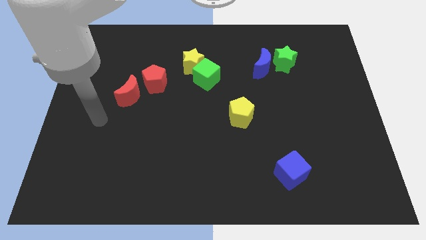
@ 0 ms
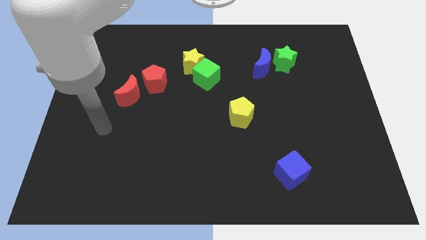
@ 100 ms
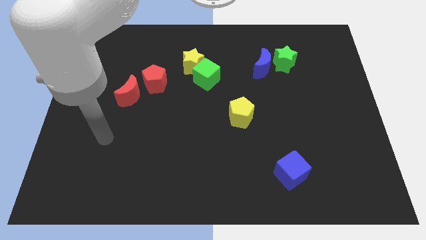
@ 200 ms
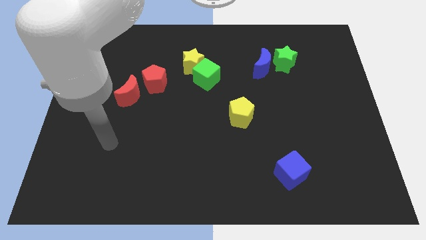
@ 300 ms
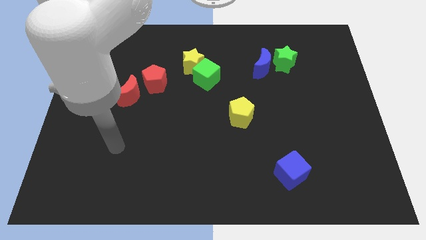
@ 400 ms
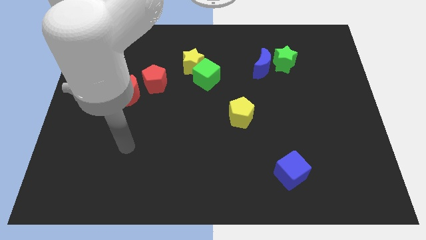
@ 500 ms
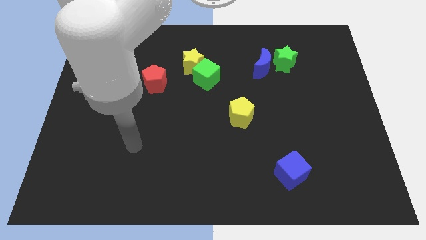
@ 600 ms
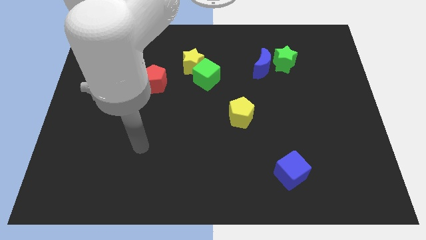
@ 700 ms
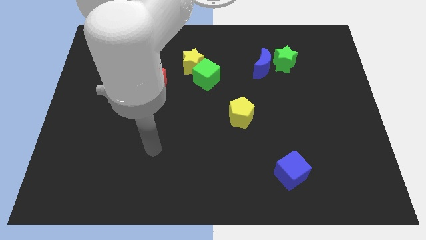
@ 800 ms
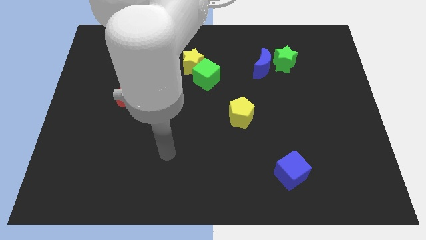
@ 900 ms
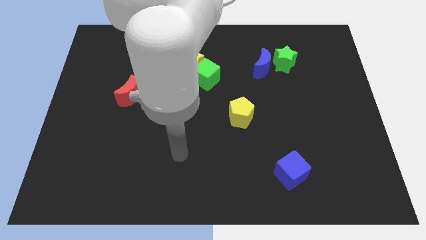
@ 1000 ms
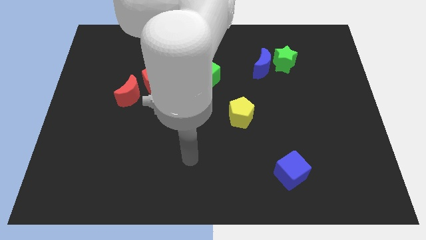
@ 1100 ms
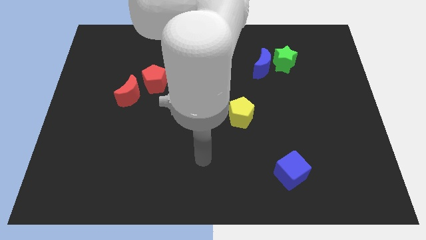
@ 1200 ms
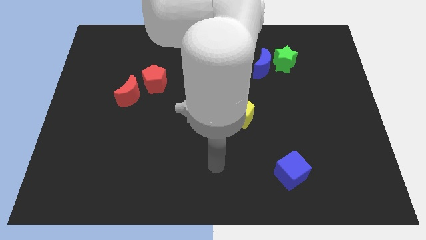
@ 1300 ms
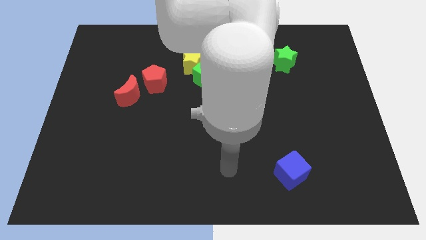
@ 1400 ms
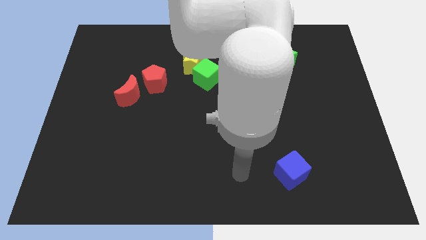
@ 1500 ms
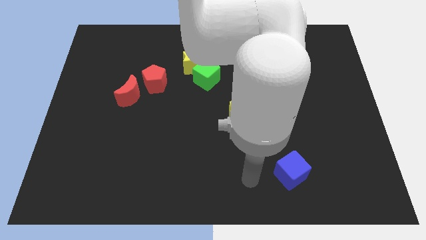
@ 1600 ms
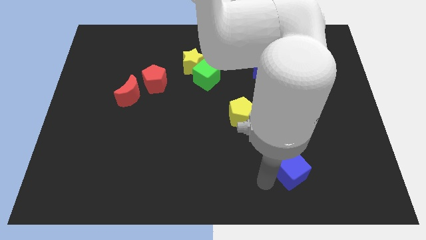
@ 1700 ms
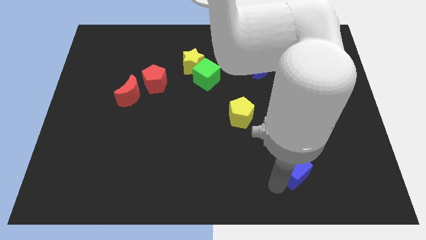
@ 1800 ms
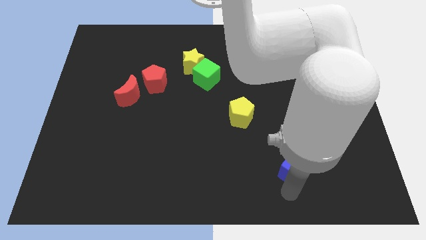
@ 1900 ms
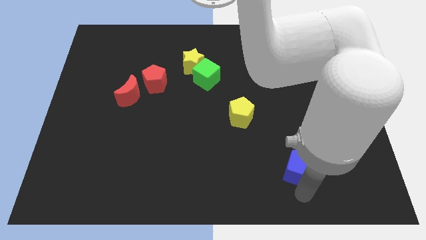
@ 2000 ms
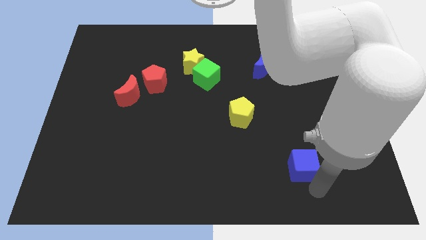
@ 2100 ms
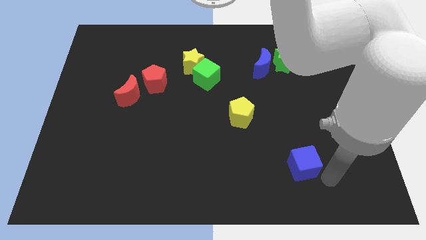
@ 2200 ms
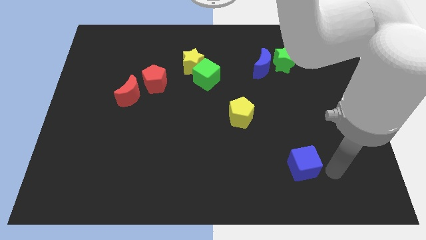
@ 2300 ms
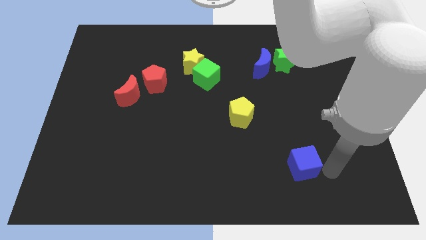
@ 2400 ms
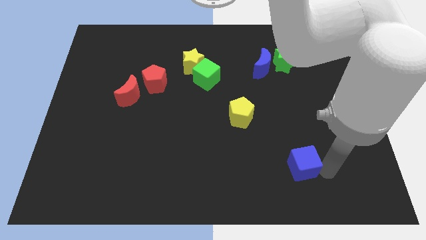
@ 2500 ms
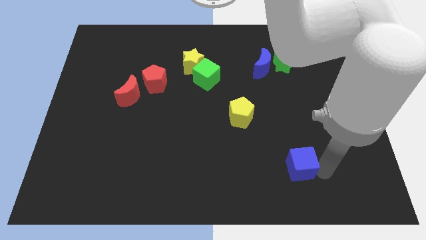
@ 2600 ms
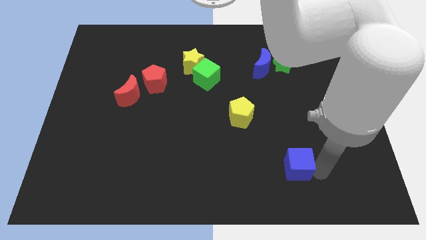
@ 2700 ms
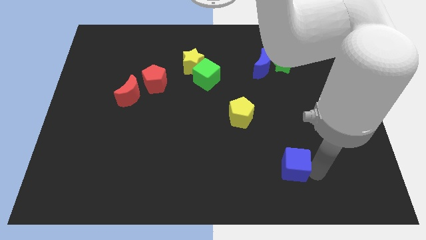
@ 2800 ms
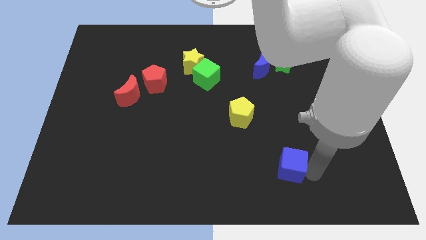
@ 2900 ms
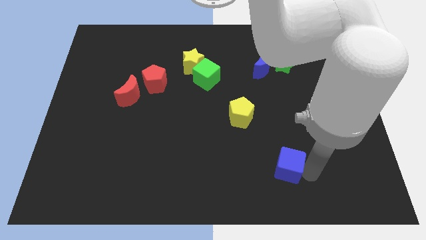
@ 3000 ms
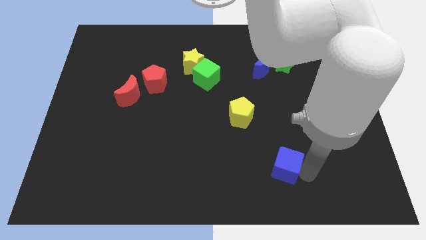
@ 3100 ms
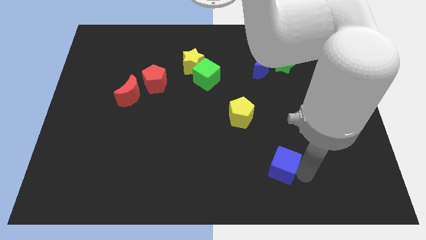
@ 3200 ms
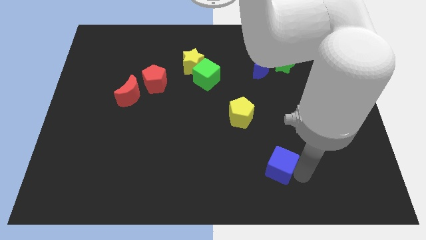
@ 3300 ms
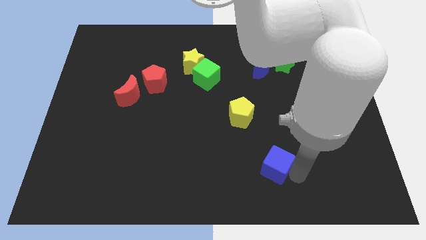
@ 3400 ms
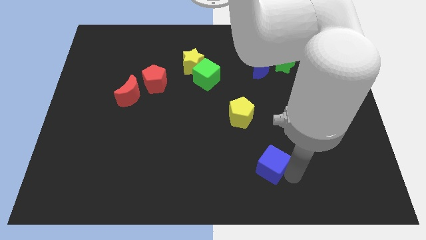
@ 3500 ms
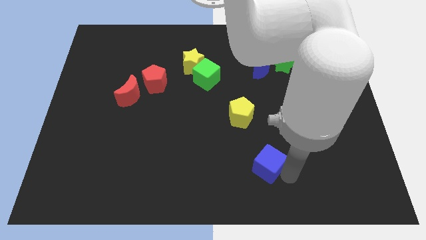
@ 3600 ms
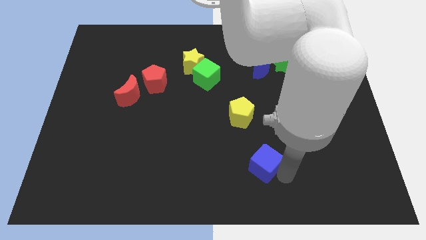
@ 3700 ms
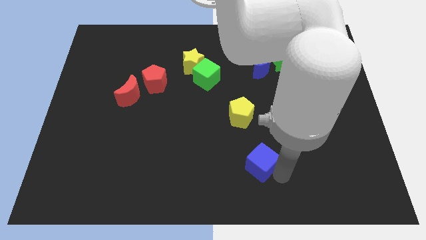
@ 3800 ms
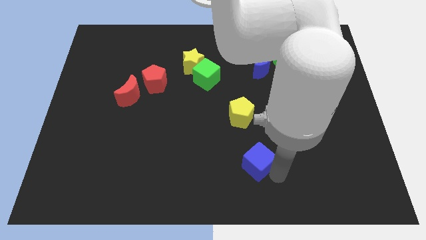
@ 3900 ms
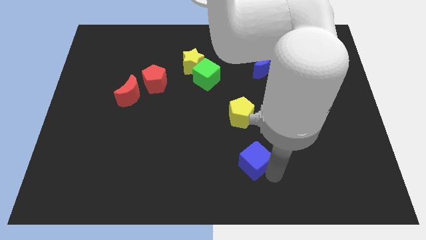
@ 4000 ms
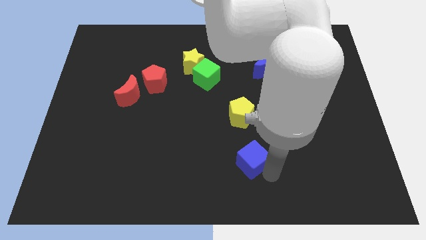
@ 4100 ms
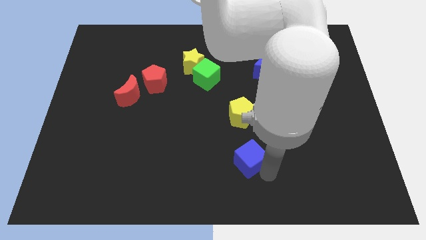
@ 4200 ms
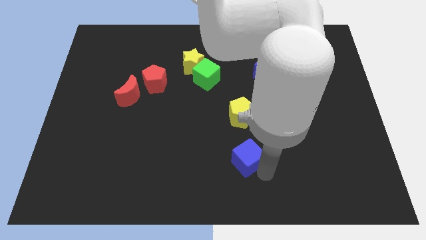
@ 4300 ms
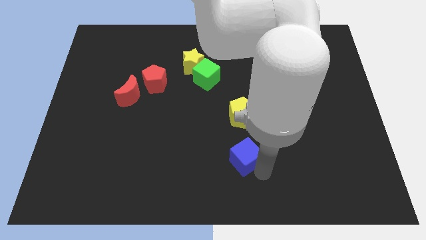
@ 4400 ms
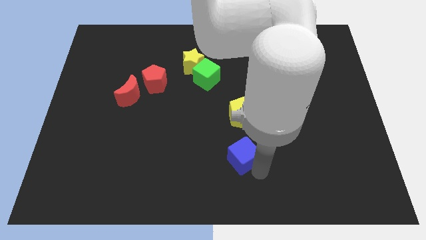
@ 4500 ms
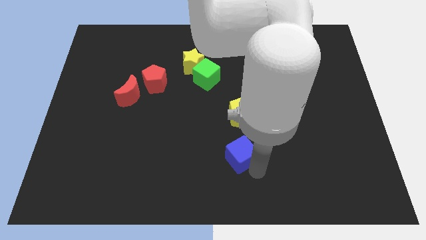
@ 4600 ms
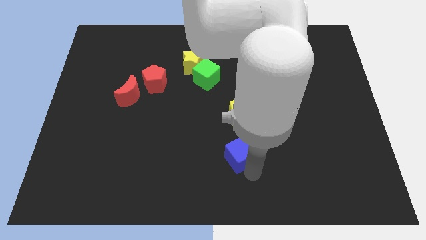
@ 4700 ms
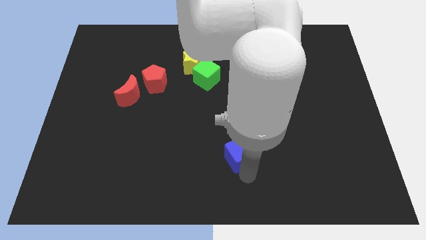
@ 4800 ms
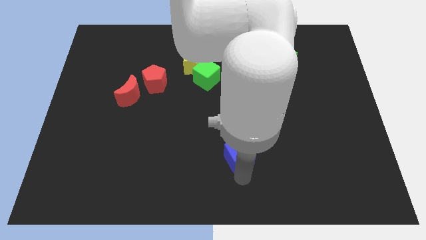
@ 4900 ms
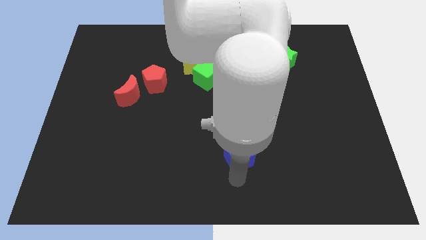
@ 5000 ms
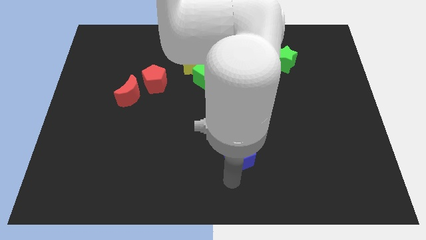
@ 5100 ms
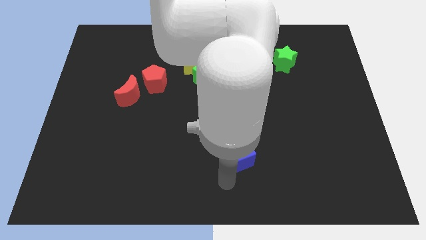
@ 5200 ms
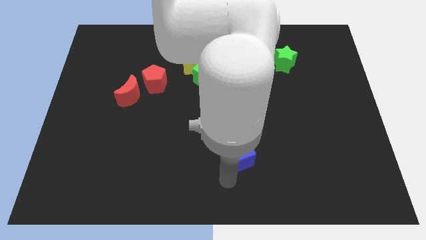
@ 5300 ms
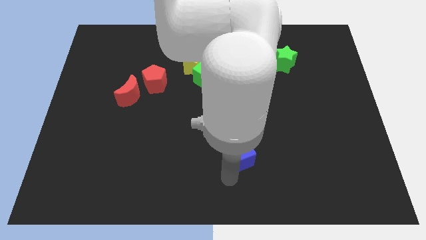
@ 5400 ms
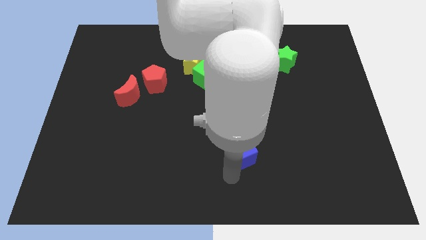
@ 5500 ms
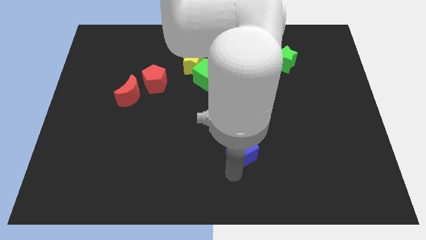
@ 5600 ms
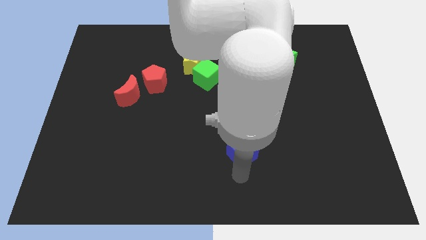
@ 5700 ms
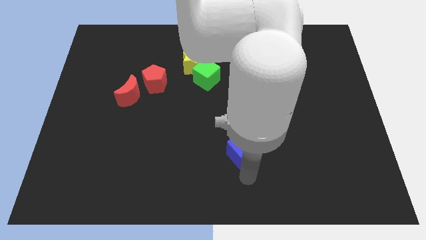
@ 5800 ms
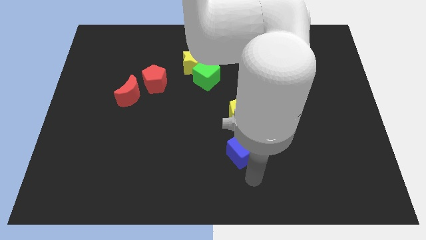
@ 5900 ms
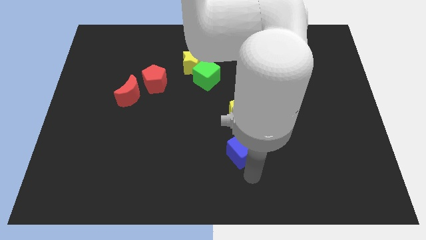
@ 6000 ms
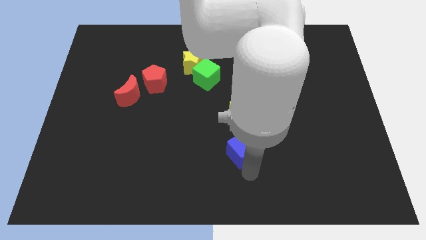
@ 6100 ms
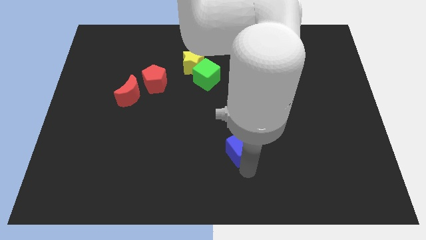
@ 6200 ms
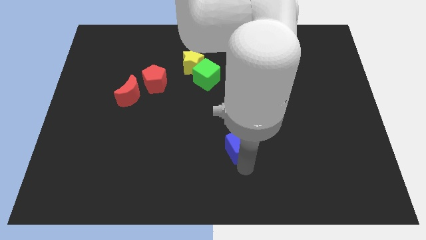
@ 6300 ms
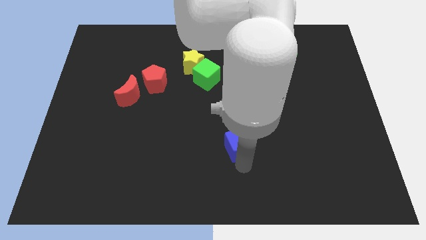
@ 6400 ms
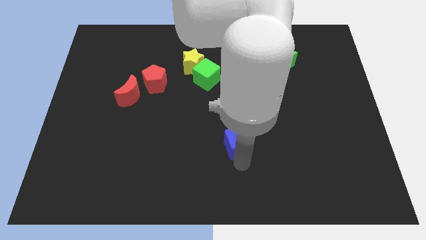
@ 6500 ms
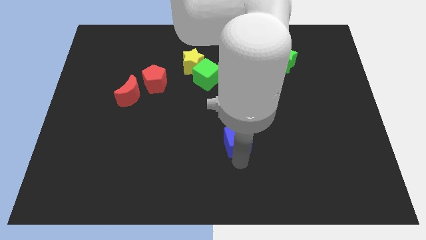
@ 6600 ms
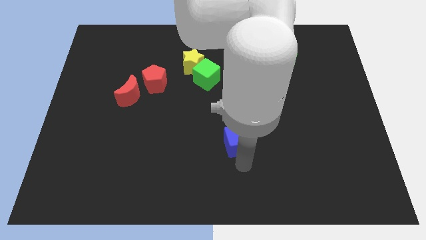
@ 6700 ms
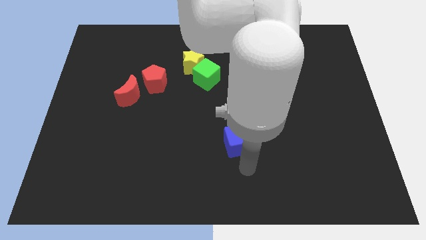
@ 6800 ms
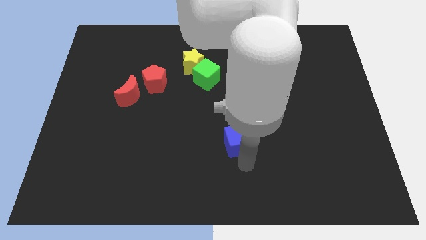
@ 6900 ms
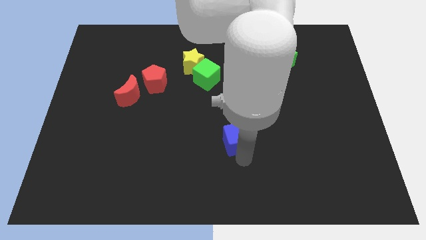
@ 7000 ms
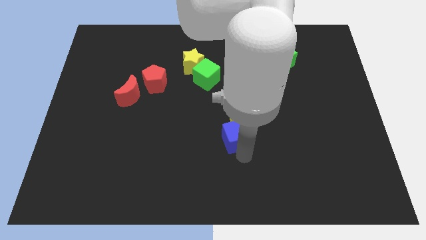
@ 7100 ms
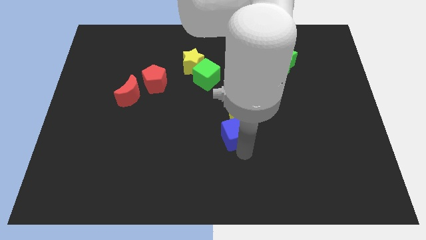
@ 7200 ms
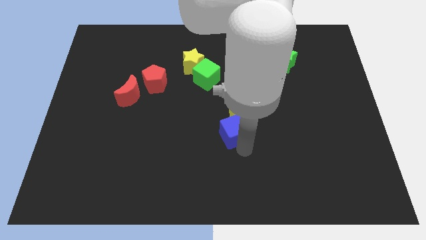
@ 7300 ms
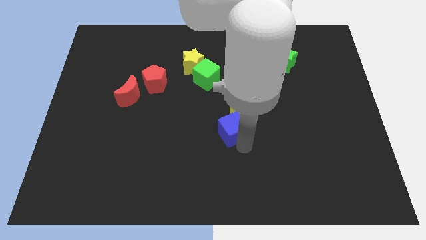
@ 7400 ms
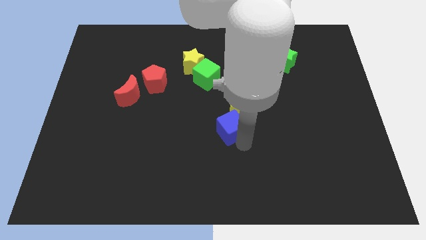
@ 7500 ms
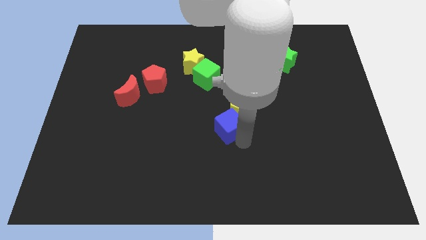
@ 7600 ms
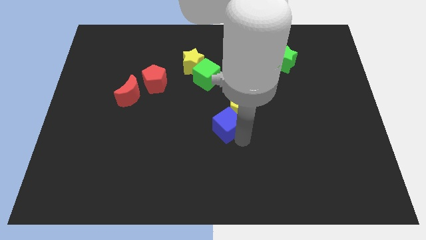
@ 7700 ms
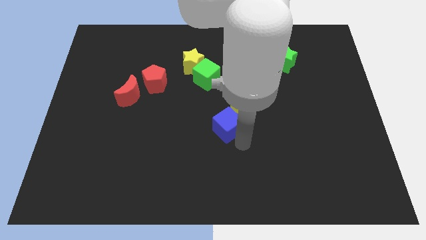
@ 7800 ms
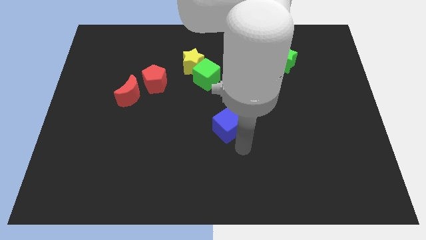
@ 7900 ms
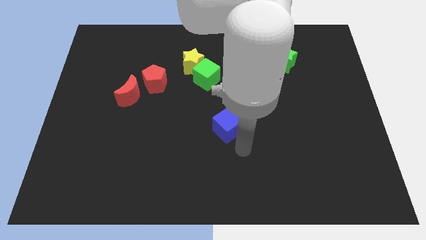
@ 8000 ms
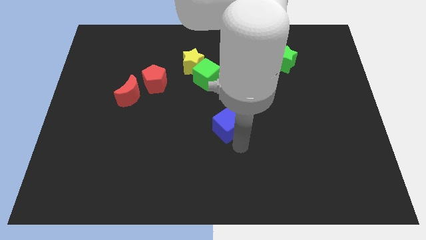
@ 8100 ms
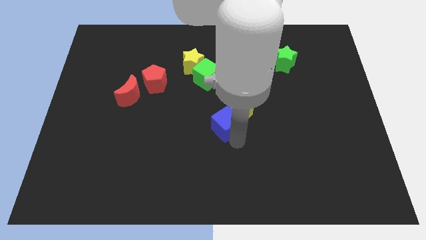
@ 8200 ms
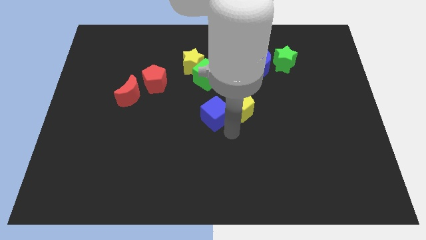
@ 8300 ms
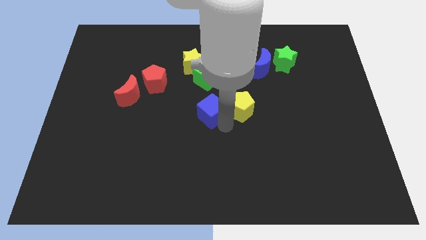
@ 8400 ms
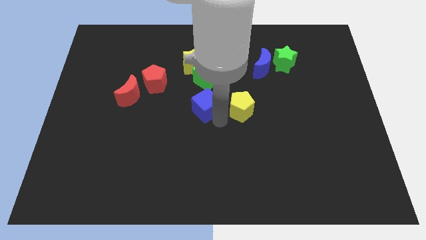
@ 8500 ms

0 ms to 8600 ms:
put the blue cube to the bottom side of the yellow star
